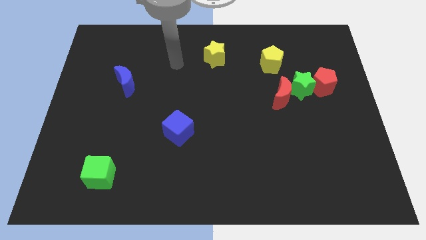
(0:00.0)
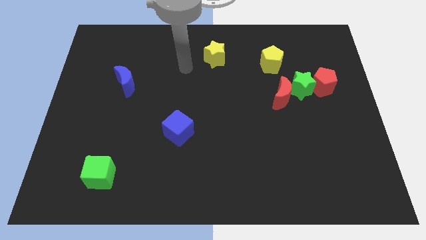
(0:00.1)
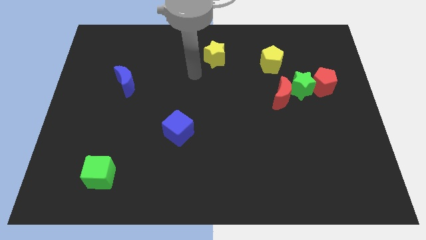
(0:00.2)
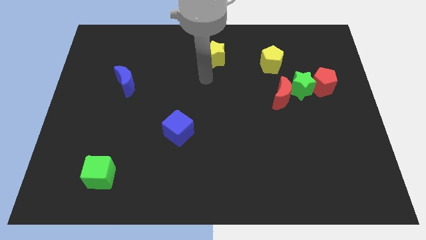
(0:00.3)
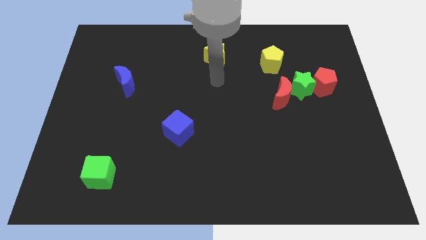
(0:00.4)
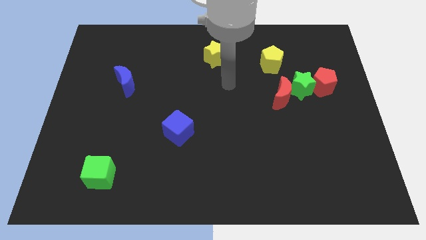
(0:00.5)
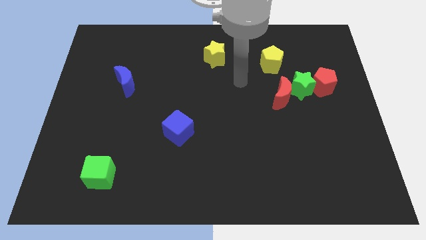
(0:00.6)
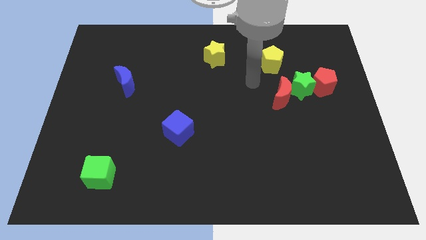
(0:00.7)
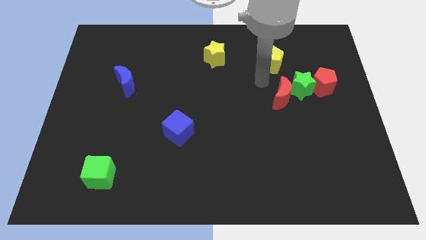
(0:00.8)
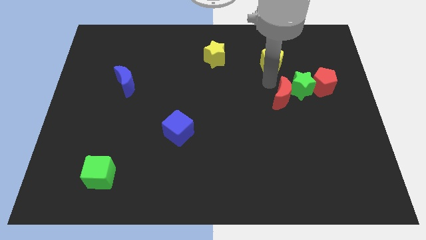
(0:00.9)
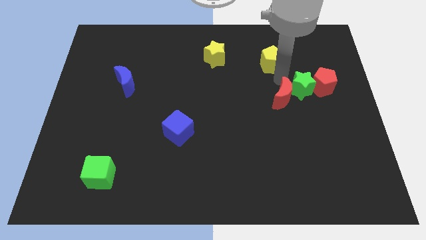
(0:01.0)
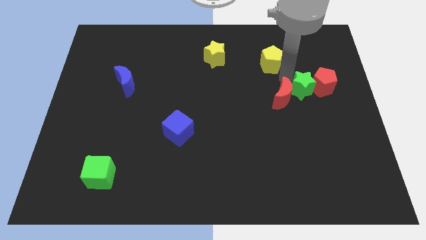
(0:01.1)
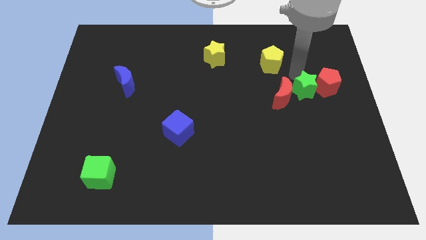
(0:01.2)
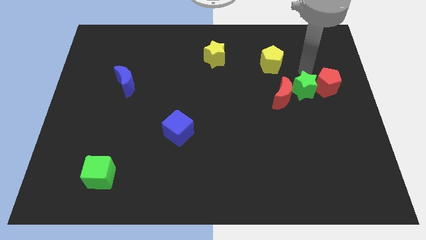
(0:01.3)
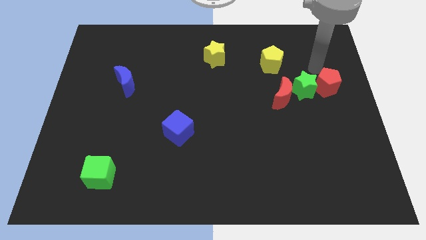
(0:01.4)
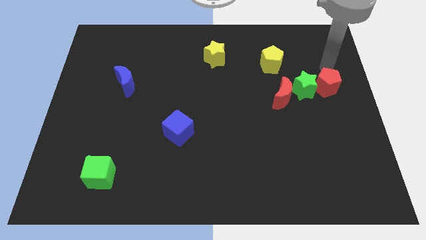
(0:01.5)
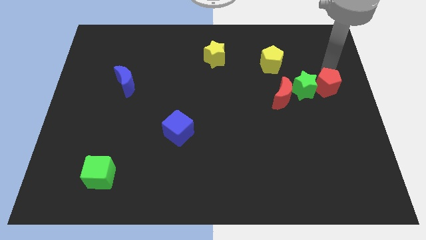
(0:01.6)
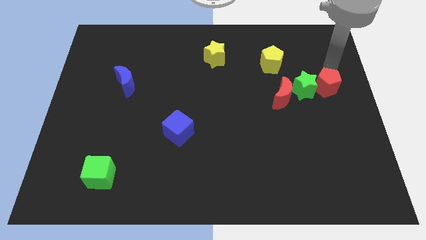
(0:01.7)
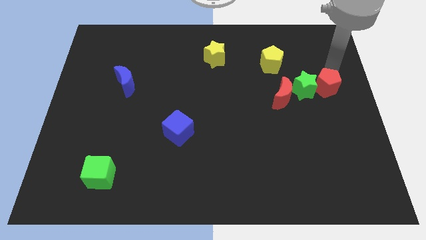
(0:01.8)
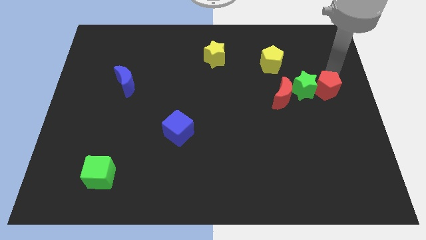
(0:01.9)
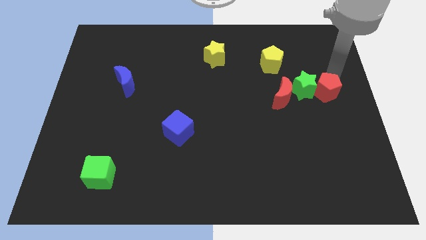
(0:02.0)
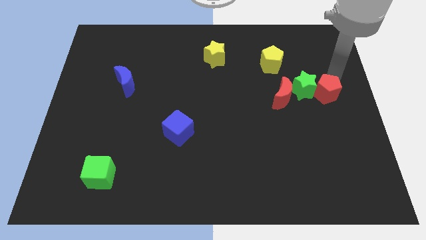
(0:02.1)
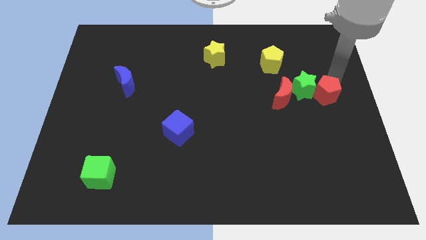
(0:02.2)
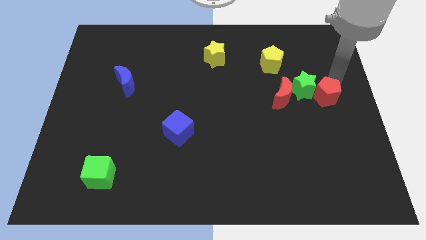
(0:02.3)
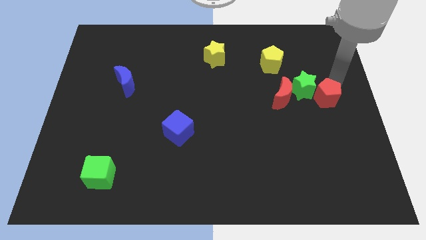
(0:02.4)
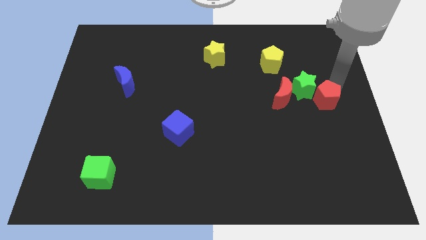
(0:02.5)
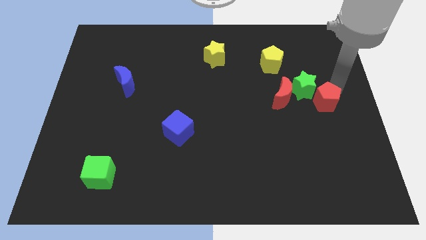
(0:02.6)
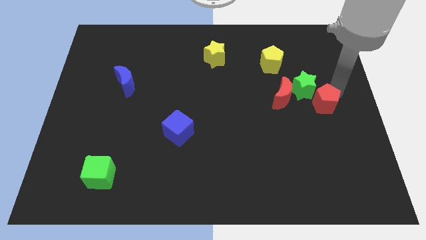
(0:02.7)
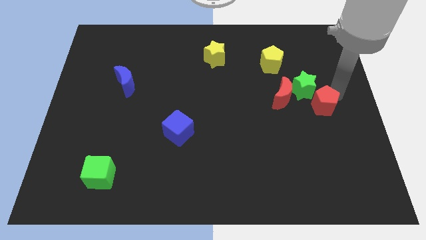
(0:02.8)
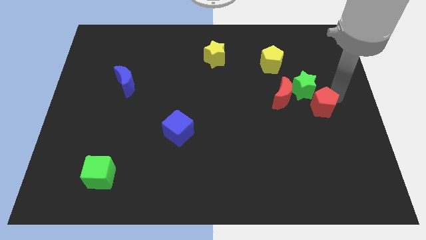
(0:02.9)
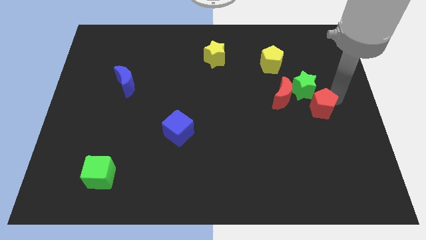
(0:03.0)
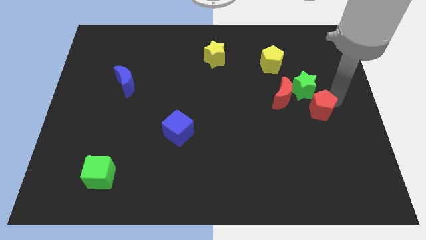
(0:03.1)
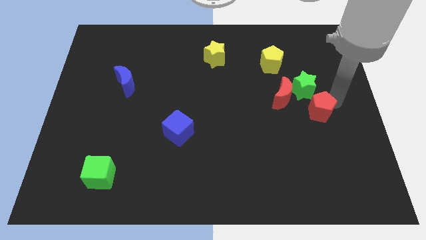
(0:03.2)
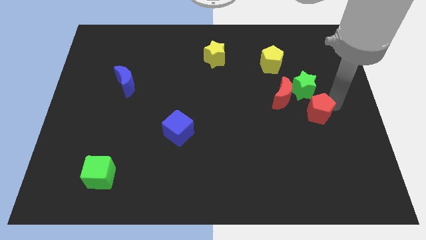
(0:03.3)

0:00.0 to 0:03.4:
push the red pentagon downwards and then left a little bit

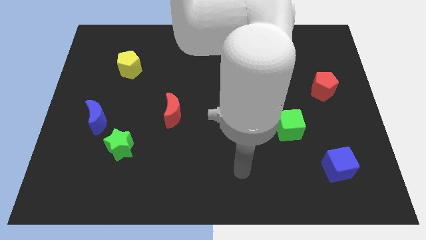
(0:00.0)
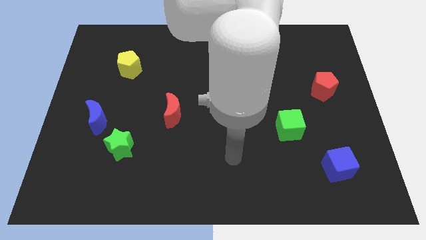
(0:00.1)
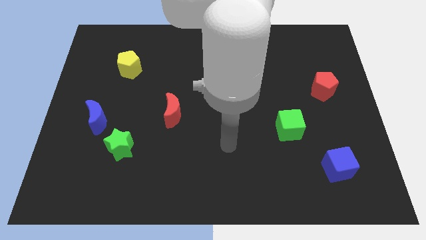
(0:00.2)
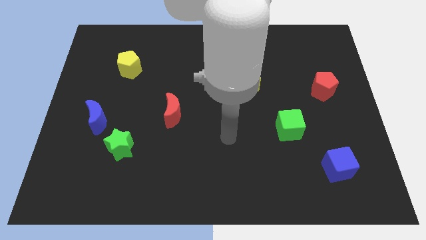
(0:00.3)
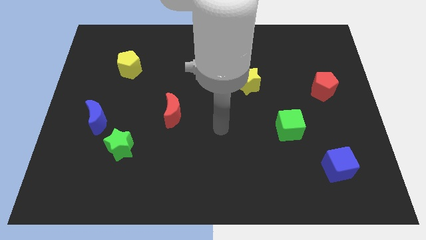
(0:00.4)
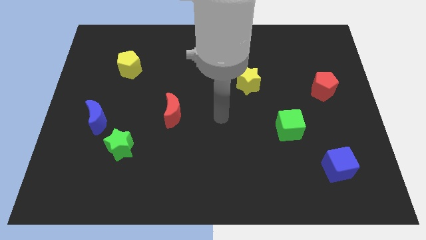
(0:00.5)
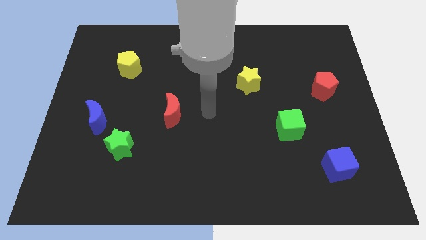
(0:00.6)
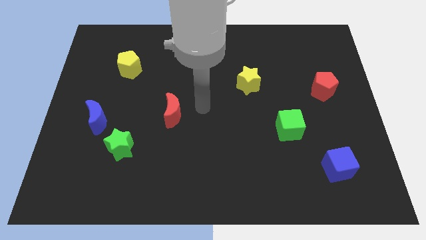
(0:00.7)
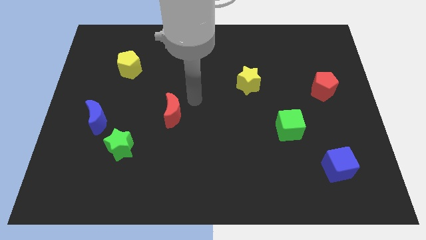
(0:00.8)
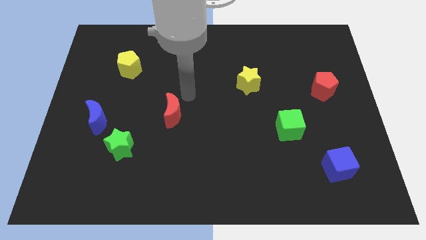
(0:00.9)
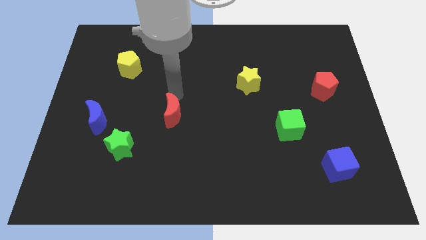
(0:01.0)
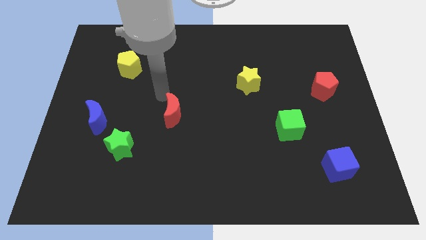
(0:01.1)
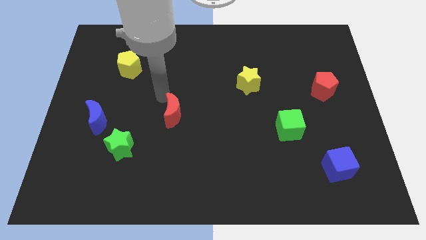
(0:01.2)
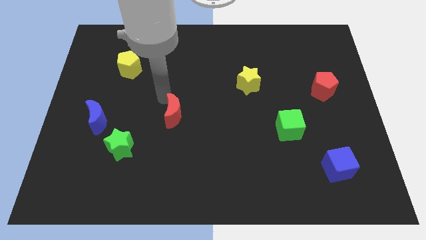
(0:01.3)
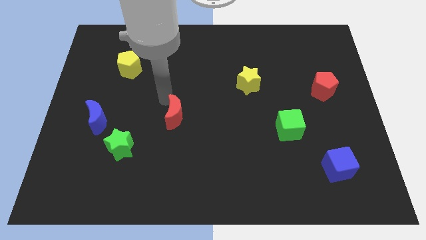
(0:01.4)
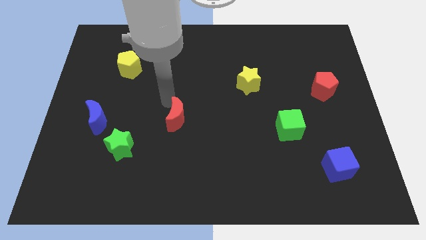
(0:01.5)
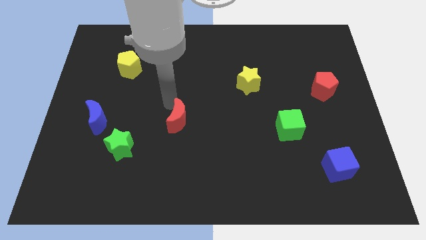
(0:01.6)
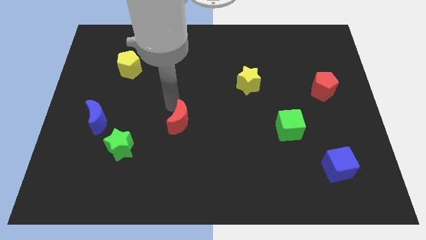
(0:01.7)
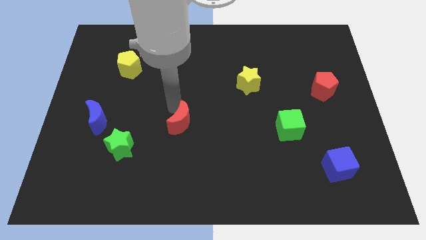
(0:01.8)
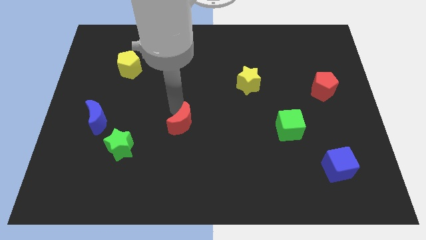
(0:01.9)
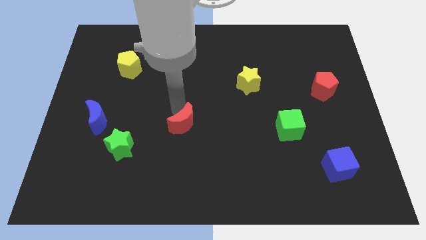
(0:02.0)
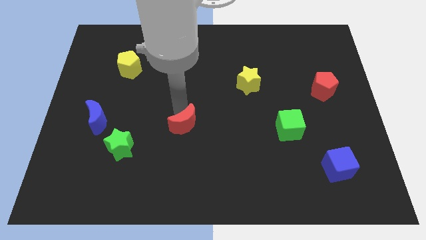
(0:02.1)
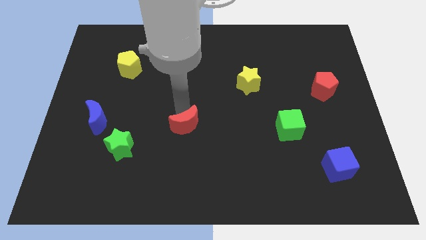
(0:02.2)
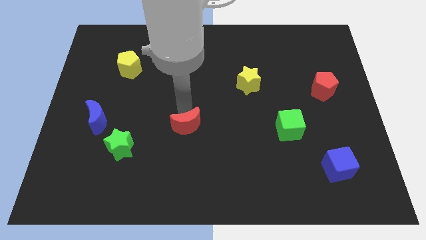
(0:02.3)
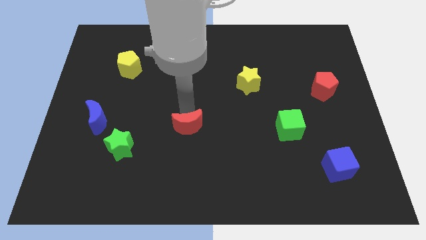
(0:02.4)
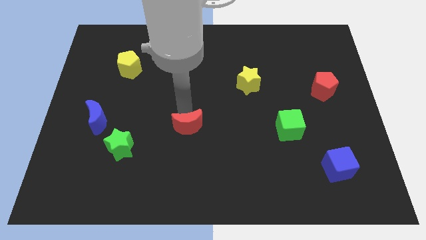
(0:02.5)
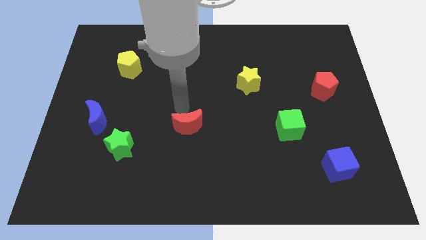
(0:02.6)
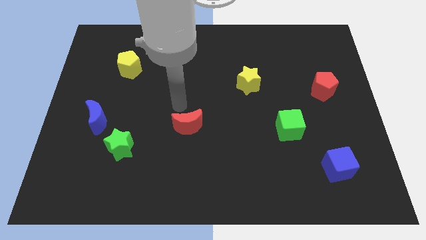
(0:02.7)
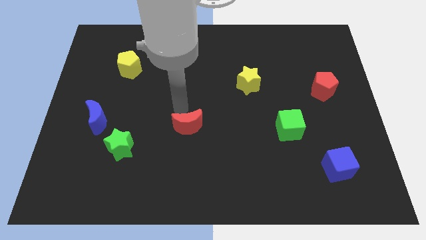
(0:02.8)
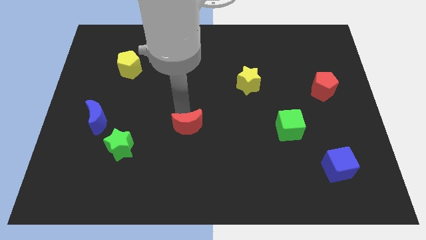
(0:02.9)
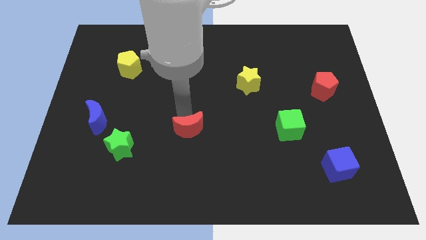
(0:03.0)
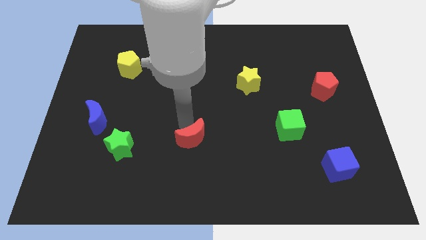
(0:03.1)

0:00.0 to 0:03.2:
slightly move the red moon diagonally downwards and right

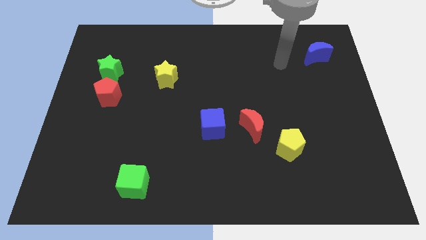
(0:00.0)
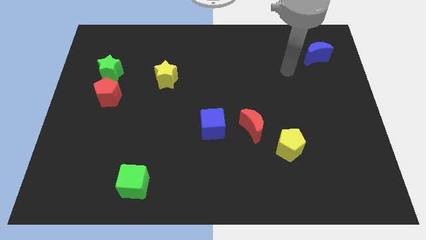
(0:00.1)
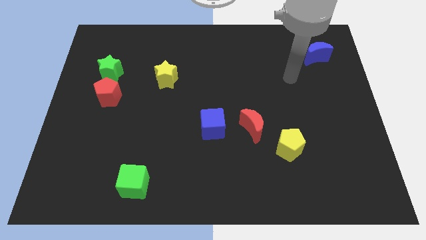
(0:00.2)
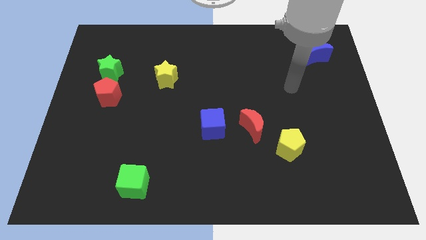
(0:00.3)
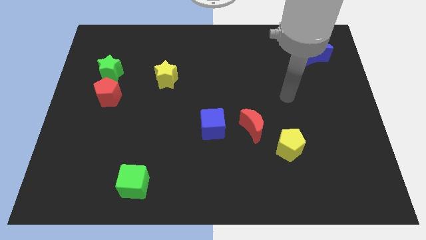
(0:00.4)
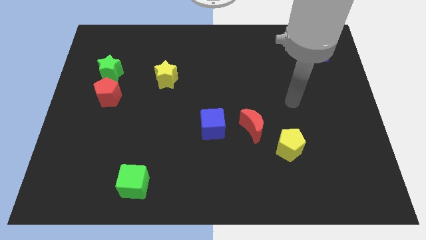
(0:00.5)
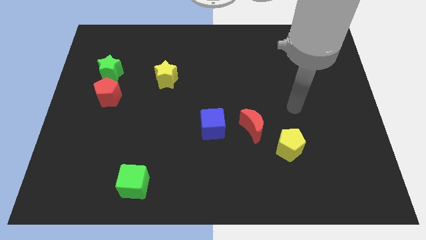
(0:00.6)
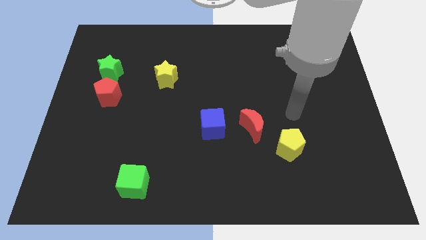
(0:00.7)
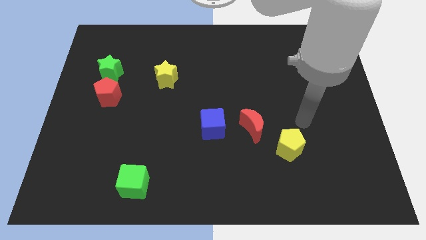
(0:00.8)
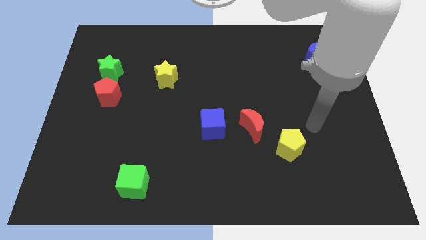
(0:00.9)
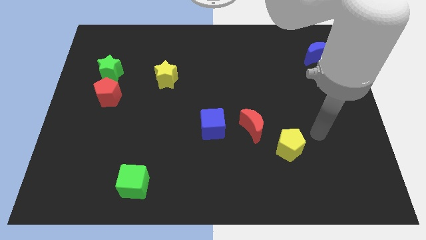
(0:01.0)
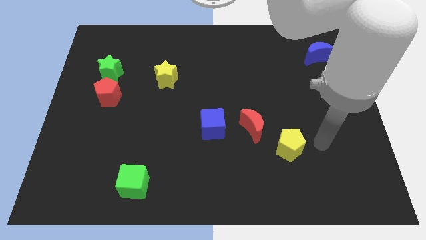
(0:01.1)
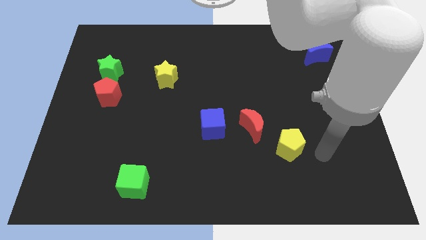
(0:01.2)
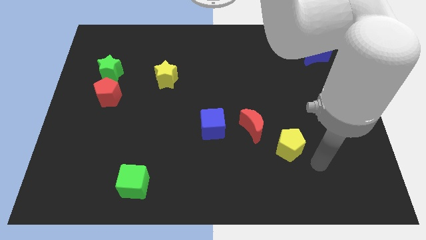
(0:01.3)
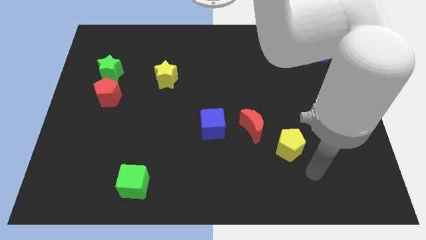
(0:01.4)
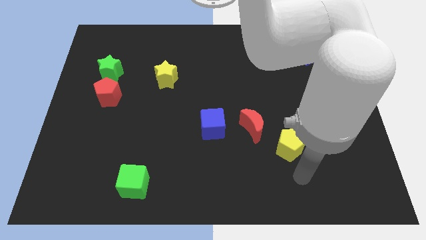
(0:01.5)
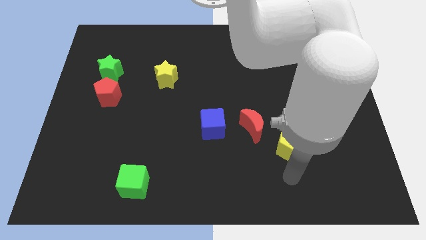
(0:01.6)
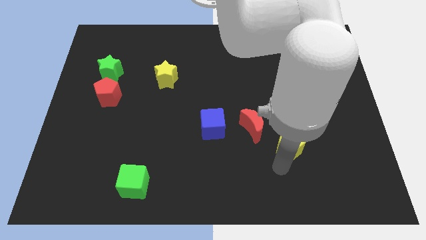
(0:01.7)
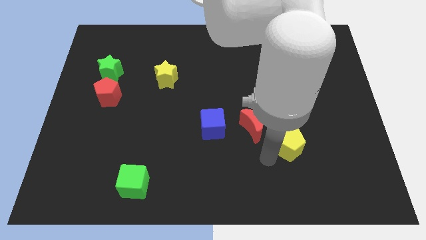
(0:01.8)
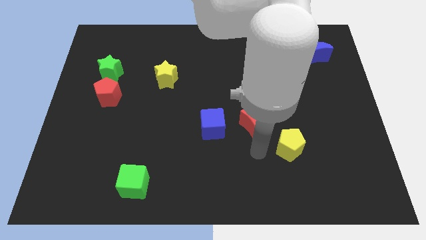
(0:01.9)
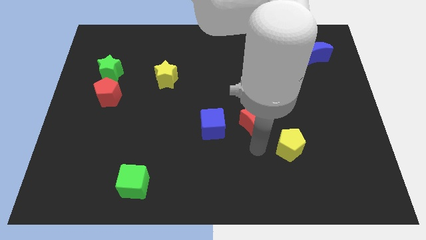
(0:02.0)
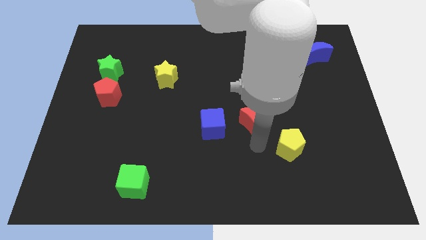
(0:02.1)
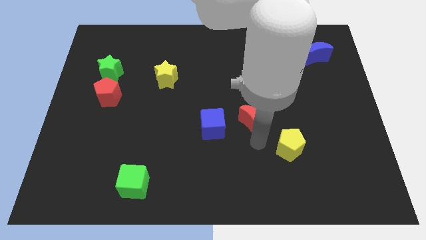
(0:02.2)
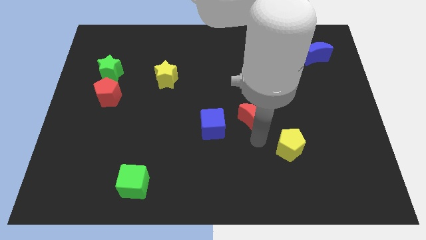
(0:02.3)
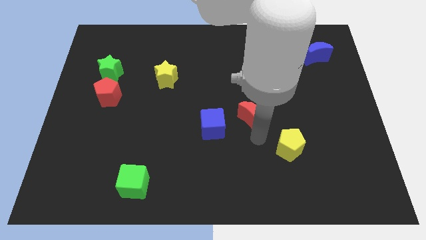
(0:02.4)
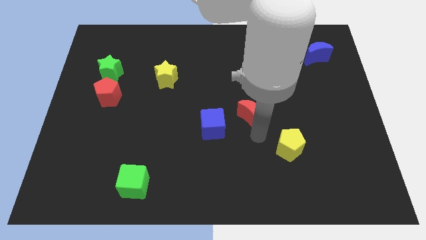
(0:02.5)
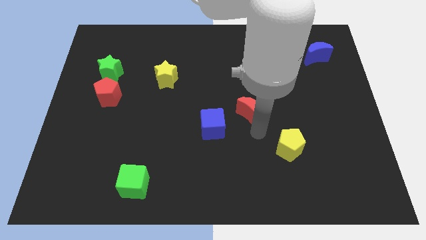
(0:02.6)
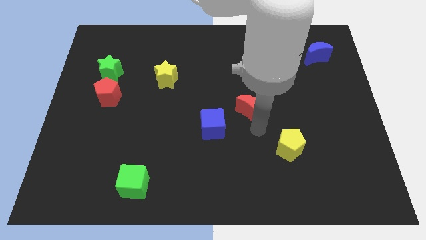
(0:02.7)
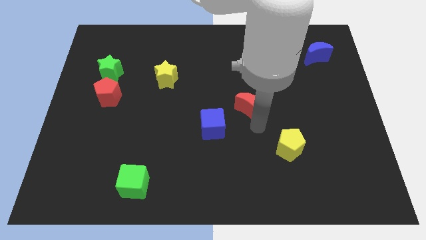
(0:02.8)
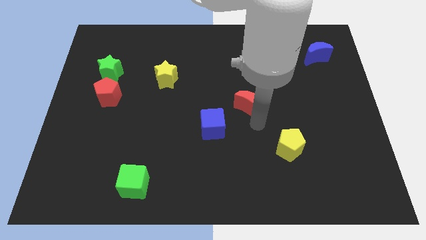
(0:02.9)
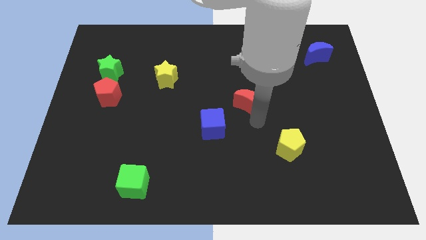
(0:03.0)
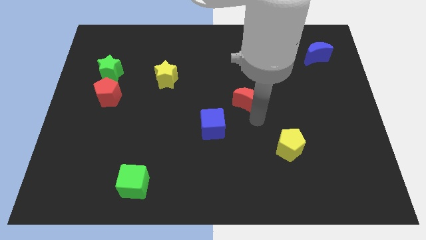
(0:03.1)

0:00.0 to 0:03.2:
slightly push the red moon up
